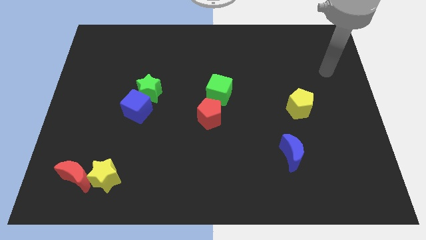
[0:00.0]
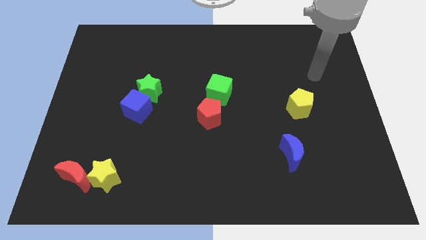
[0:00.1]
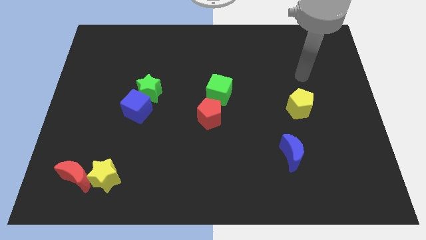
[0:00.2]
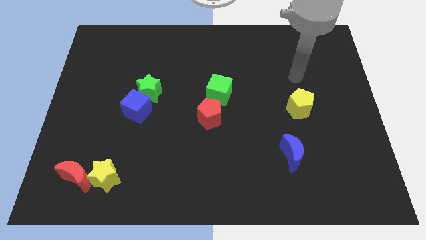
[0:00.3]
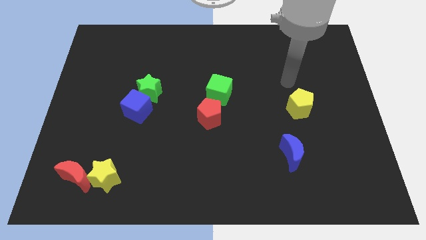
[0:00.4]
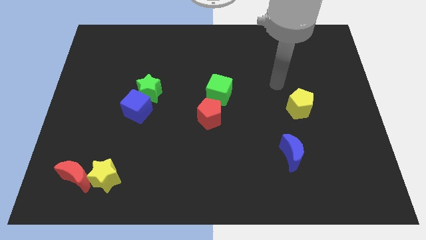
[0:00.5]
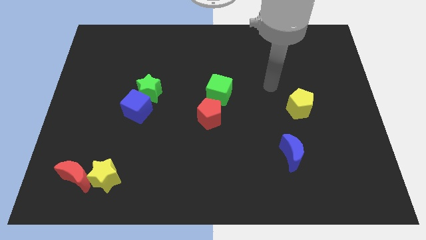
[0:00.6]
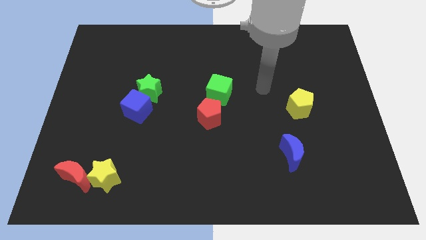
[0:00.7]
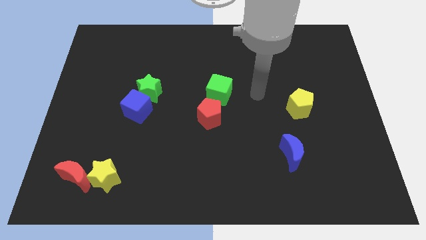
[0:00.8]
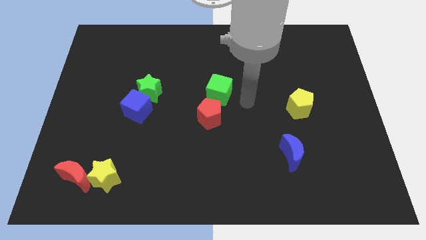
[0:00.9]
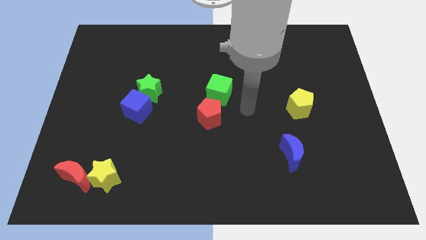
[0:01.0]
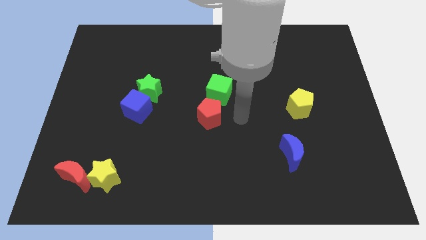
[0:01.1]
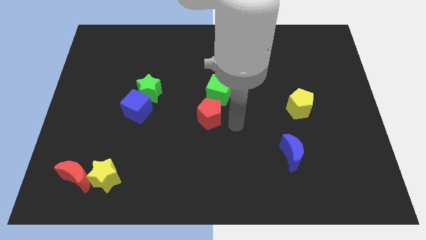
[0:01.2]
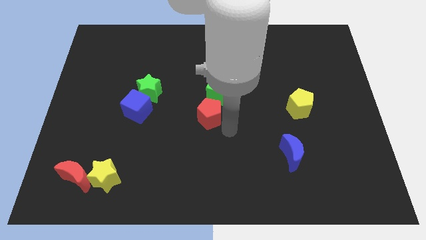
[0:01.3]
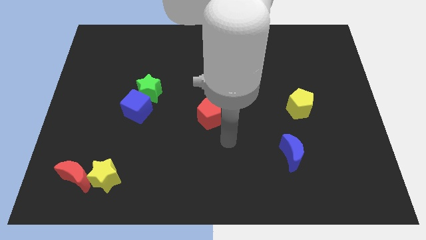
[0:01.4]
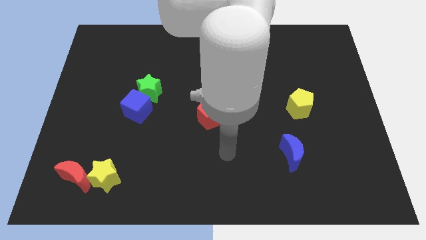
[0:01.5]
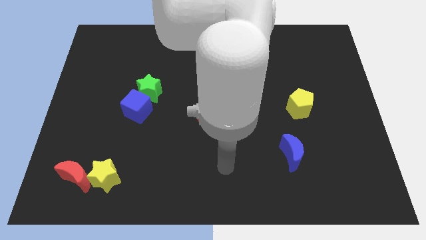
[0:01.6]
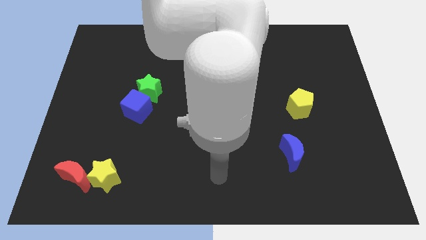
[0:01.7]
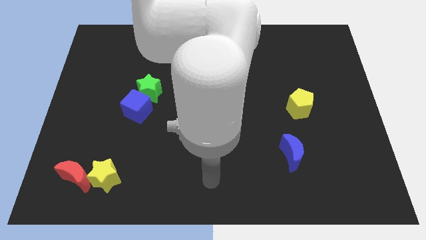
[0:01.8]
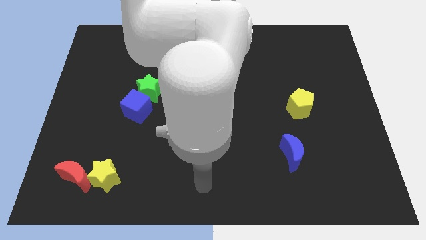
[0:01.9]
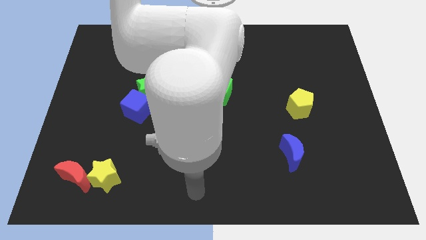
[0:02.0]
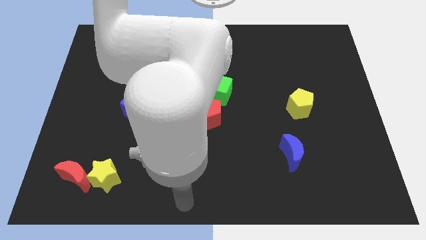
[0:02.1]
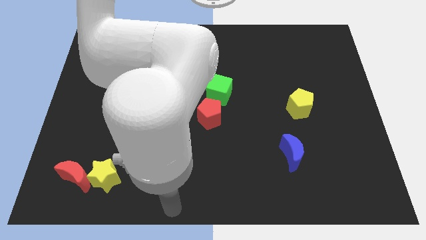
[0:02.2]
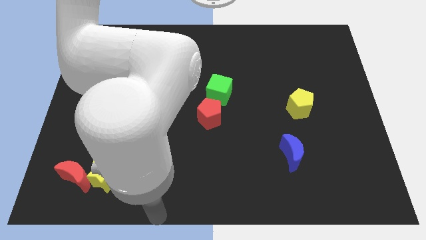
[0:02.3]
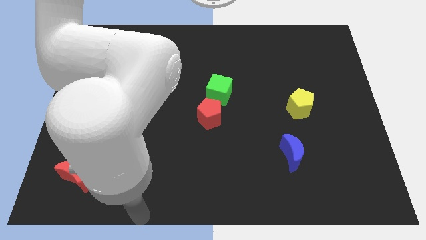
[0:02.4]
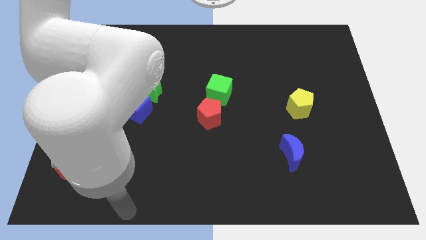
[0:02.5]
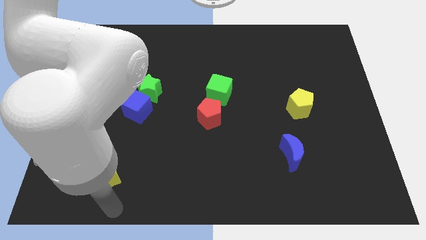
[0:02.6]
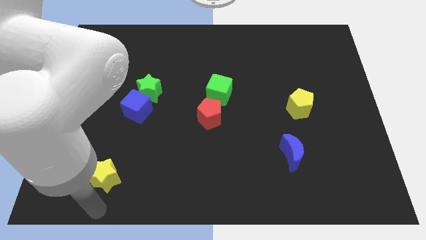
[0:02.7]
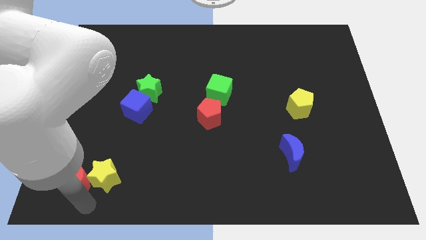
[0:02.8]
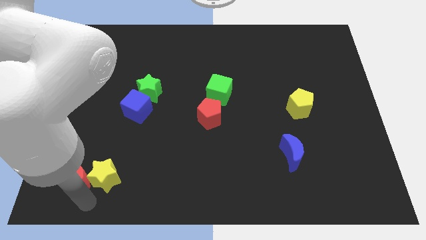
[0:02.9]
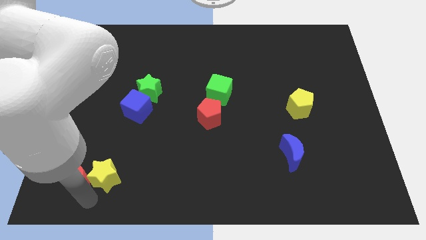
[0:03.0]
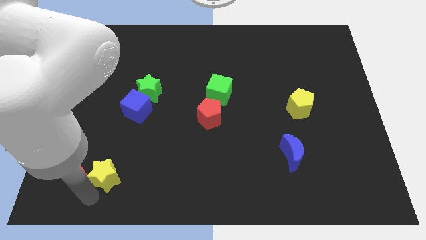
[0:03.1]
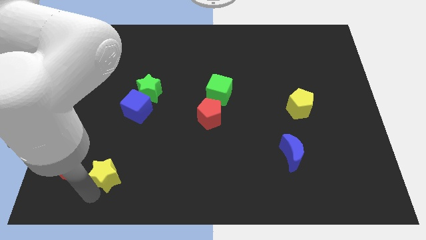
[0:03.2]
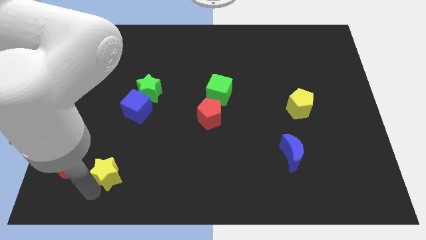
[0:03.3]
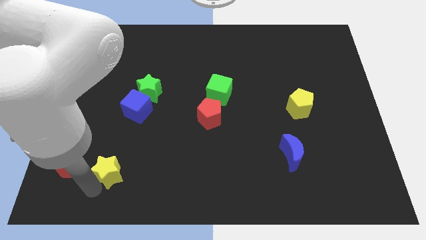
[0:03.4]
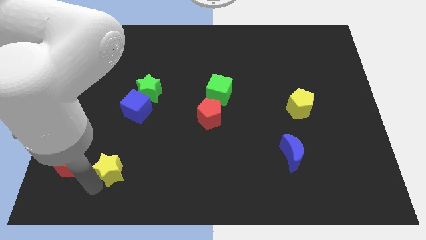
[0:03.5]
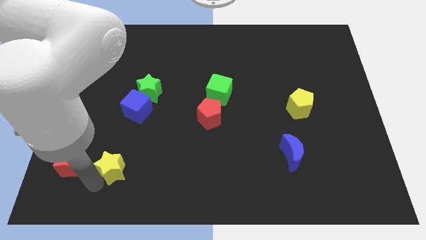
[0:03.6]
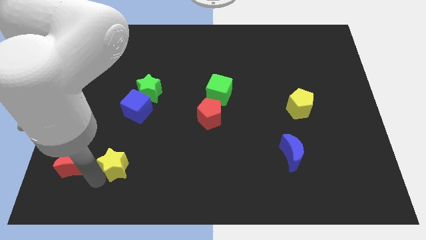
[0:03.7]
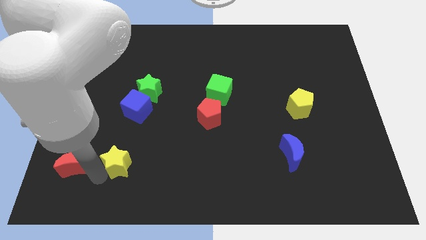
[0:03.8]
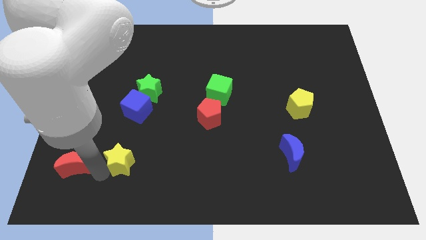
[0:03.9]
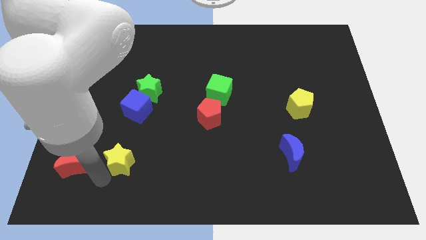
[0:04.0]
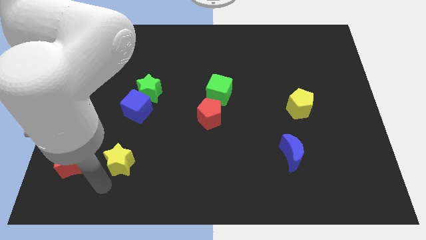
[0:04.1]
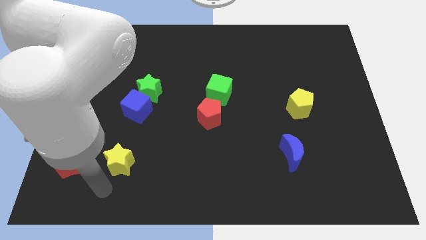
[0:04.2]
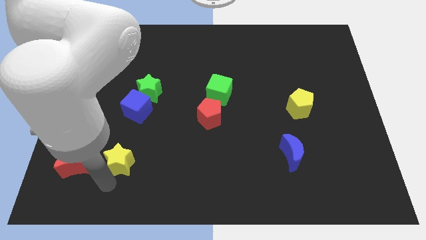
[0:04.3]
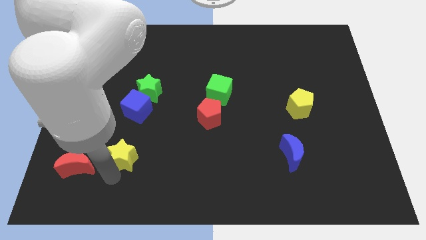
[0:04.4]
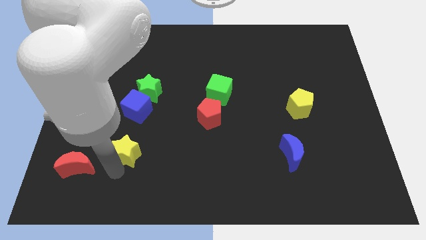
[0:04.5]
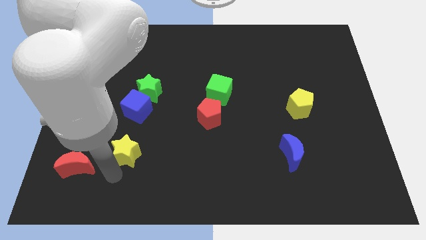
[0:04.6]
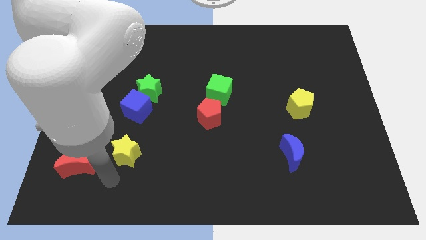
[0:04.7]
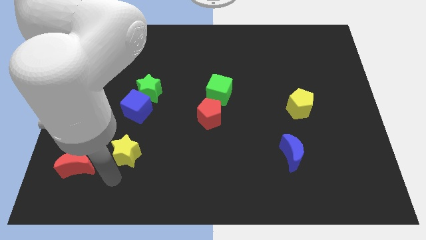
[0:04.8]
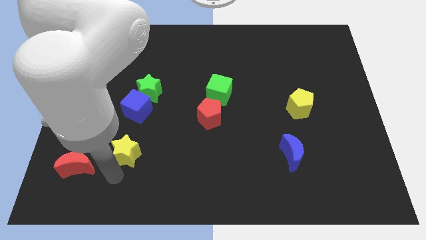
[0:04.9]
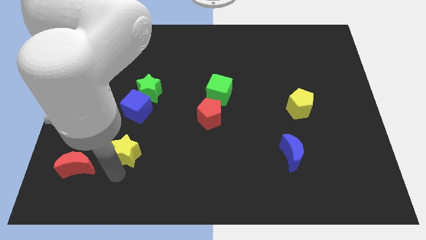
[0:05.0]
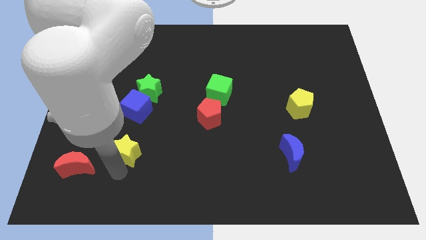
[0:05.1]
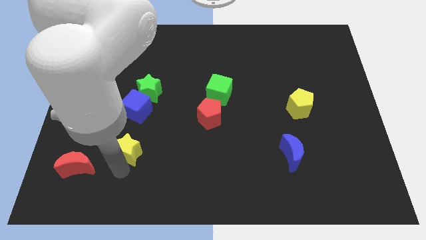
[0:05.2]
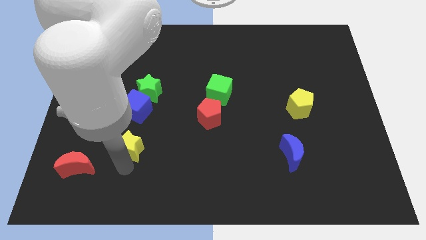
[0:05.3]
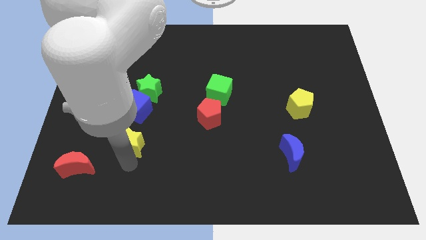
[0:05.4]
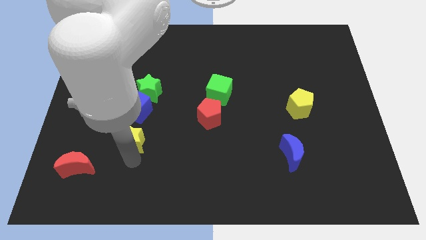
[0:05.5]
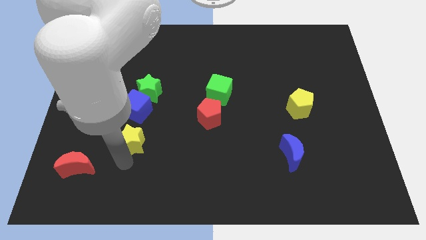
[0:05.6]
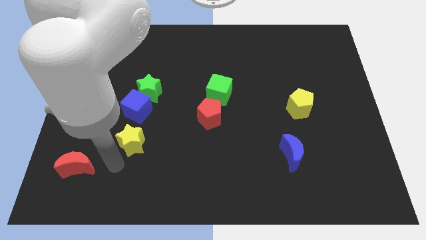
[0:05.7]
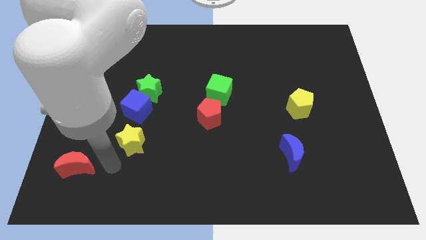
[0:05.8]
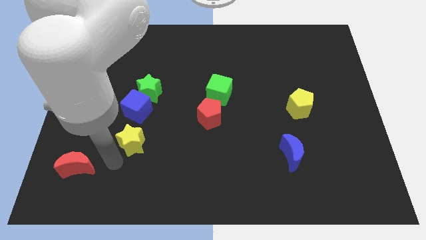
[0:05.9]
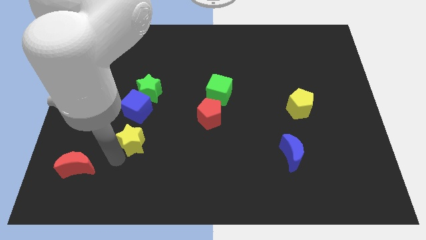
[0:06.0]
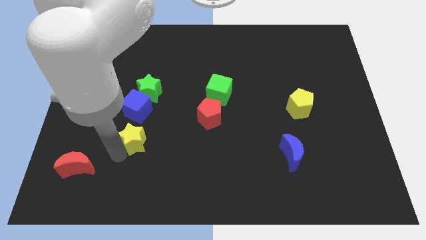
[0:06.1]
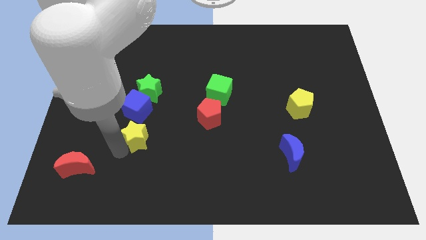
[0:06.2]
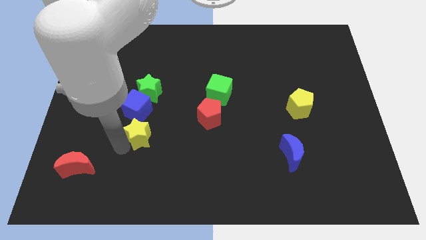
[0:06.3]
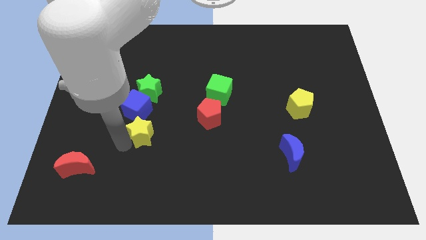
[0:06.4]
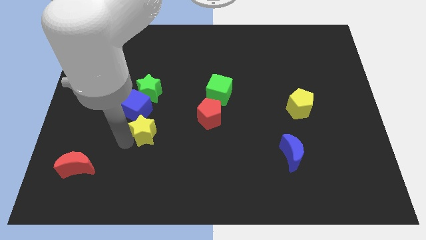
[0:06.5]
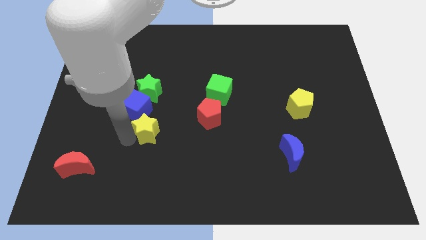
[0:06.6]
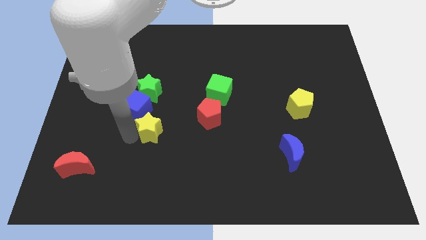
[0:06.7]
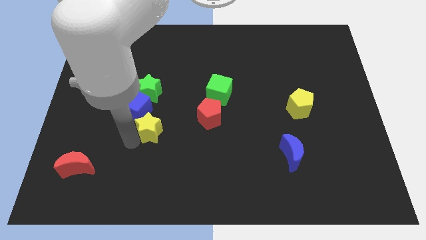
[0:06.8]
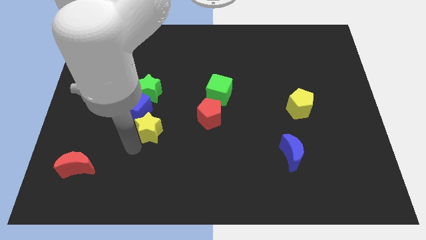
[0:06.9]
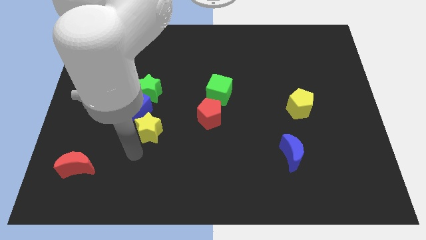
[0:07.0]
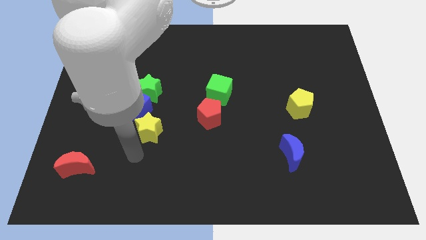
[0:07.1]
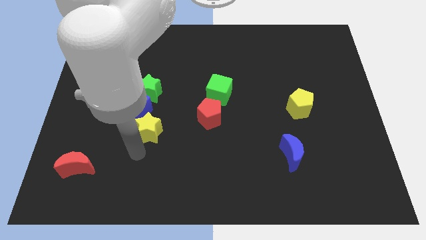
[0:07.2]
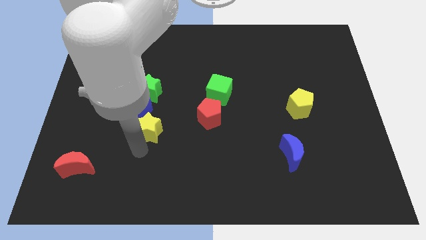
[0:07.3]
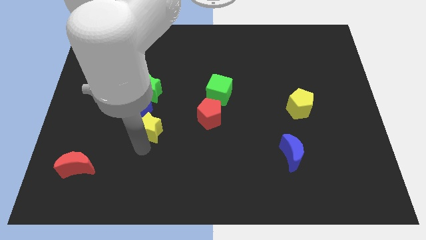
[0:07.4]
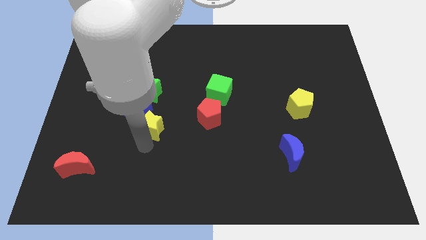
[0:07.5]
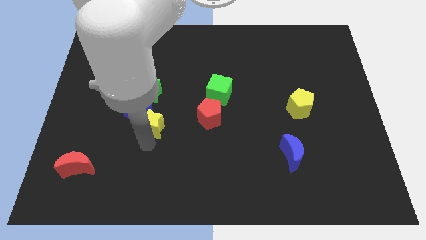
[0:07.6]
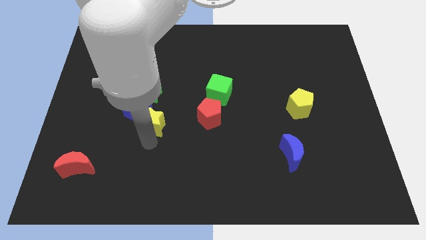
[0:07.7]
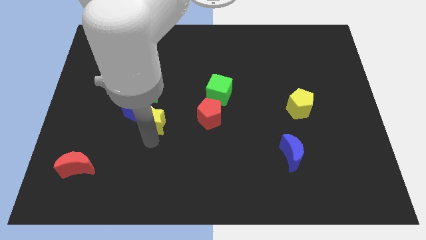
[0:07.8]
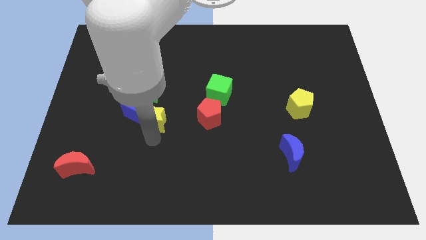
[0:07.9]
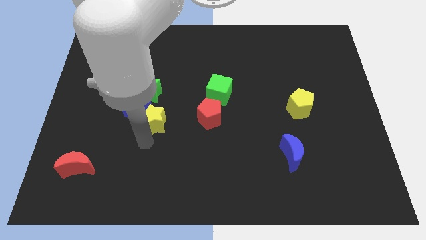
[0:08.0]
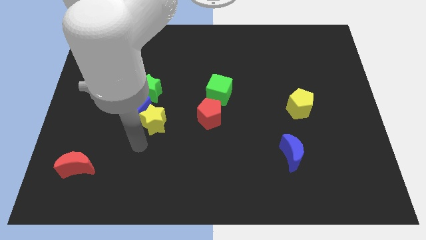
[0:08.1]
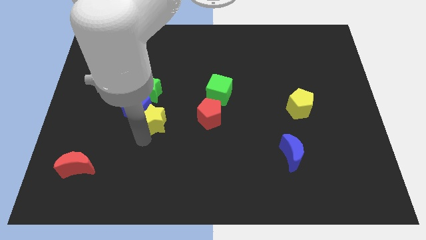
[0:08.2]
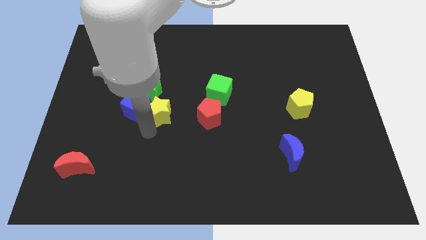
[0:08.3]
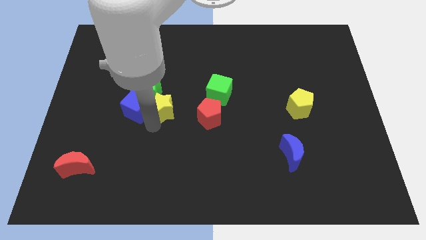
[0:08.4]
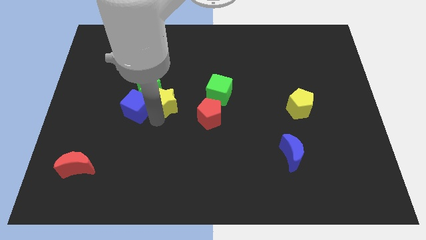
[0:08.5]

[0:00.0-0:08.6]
put the yellow star just left of the green cube
